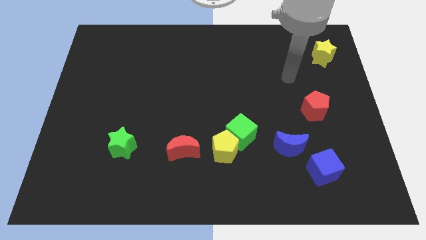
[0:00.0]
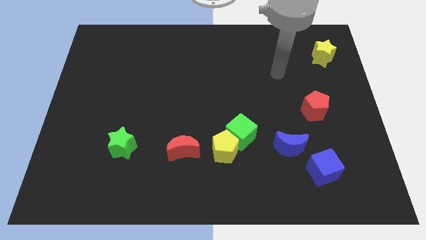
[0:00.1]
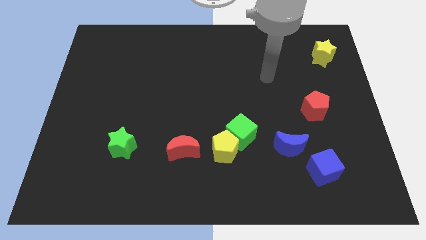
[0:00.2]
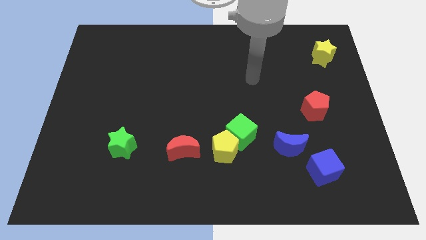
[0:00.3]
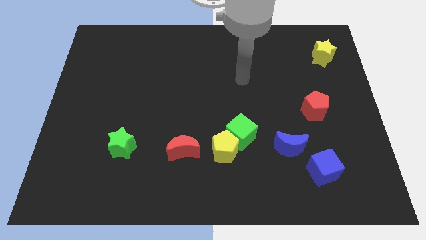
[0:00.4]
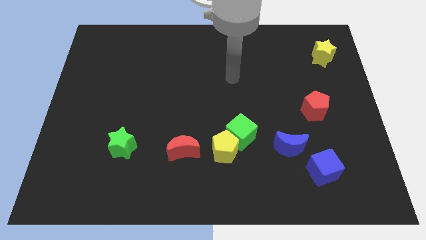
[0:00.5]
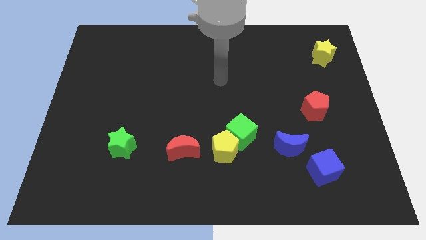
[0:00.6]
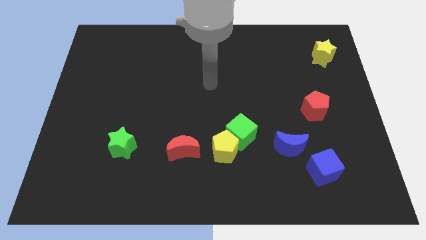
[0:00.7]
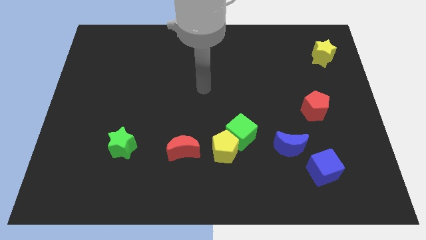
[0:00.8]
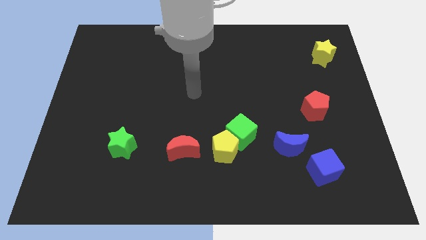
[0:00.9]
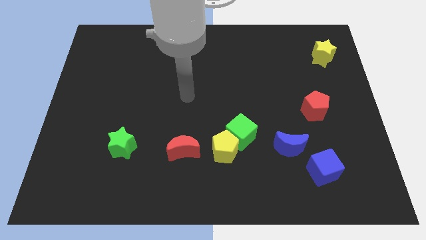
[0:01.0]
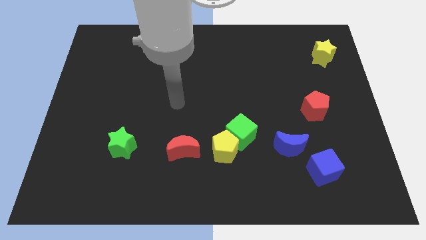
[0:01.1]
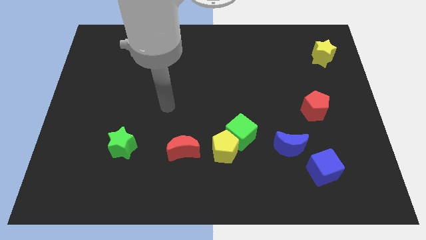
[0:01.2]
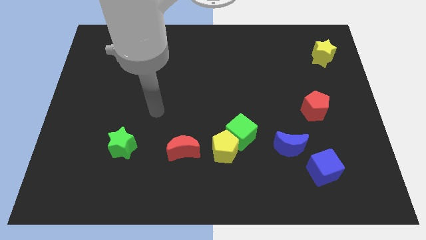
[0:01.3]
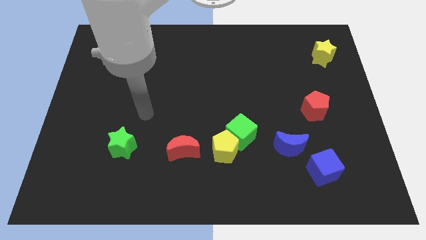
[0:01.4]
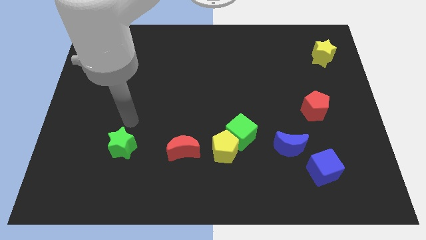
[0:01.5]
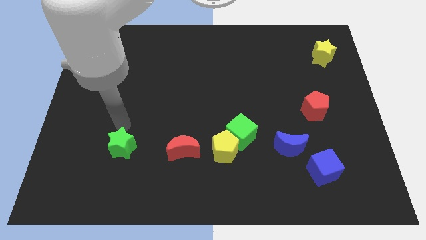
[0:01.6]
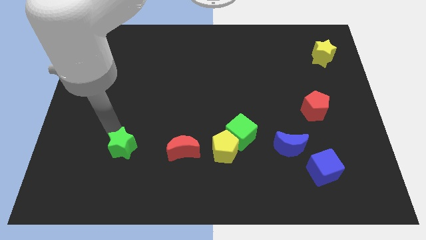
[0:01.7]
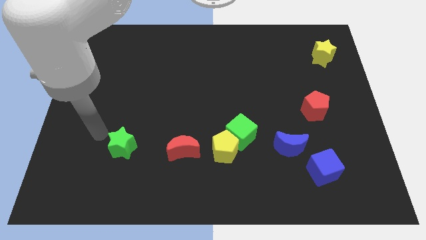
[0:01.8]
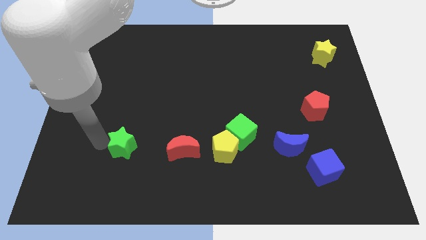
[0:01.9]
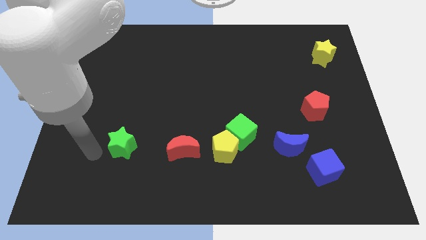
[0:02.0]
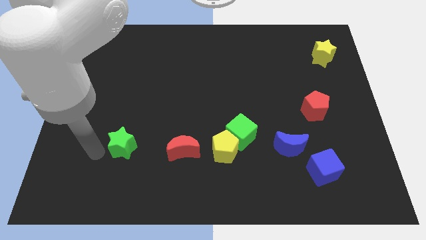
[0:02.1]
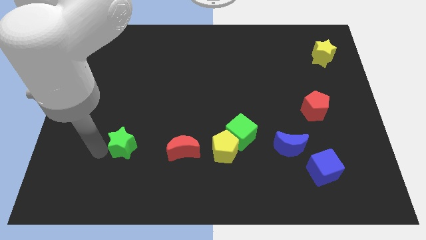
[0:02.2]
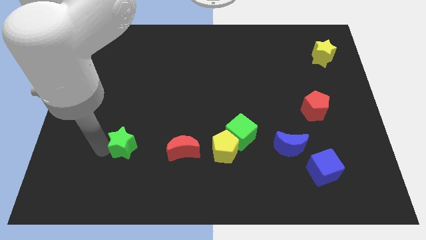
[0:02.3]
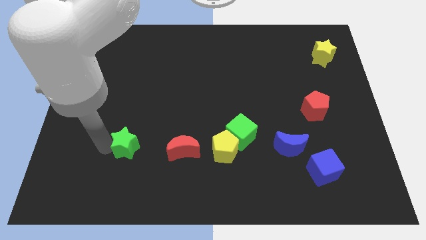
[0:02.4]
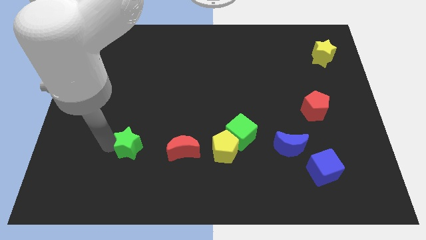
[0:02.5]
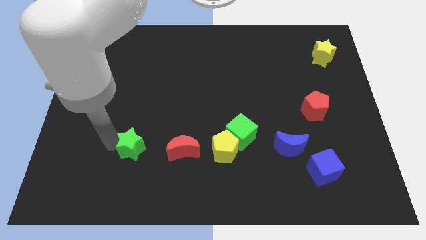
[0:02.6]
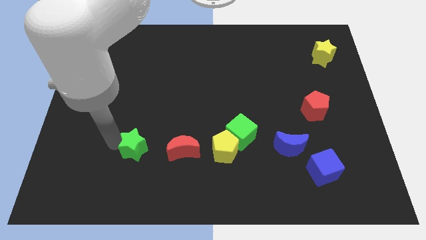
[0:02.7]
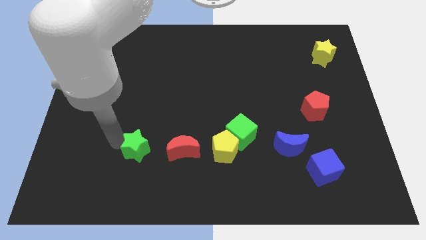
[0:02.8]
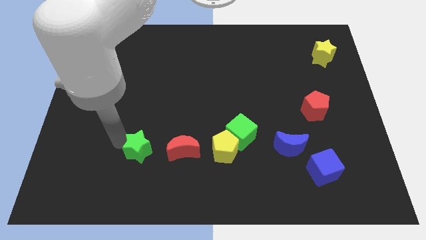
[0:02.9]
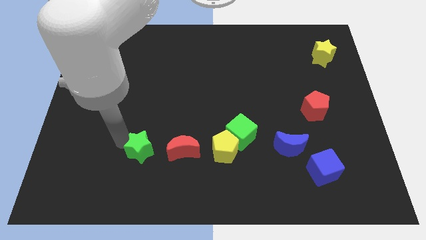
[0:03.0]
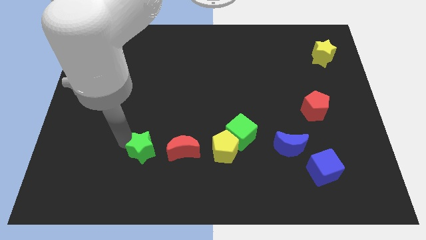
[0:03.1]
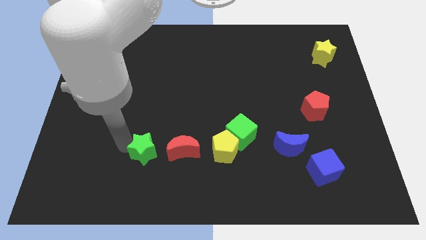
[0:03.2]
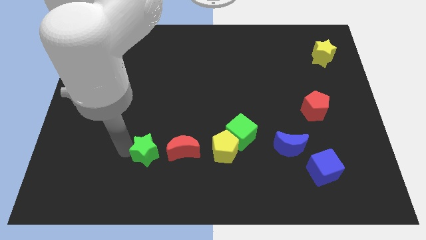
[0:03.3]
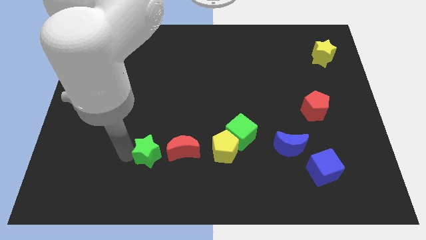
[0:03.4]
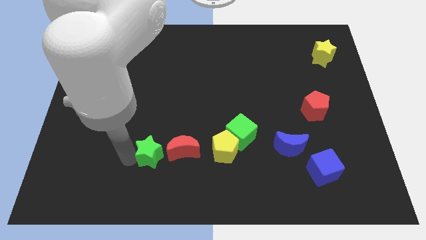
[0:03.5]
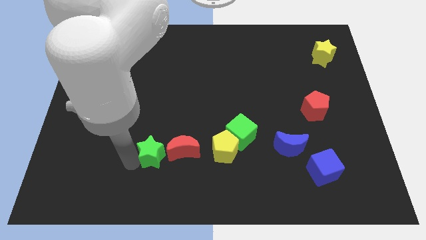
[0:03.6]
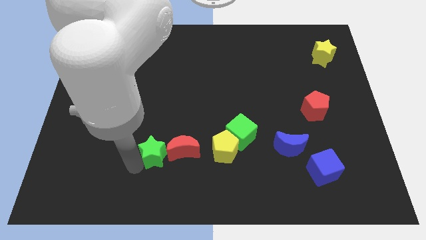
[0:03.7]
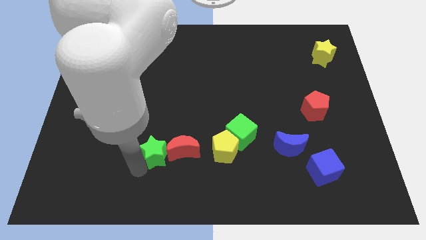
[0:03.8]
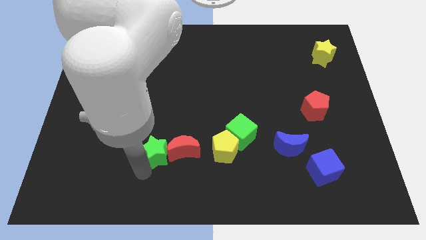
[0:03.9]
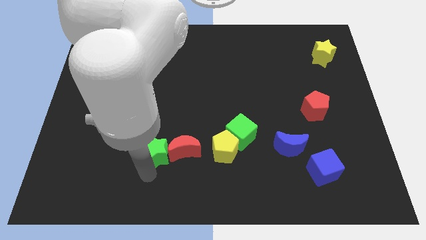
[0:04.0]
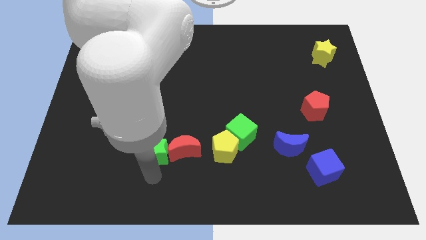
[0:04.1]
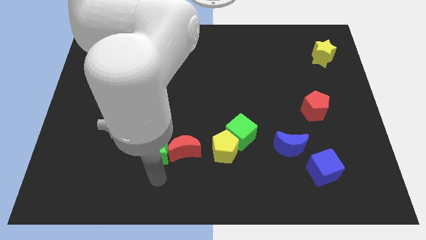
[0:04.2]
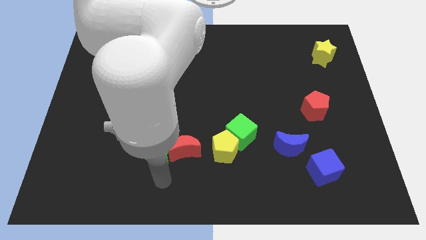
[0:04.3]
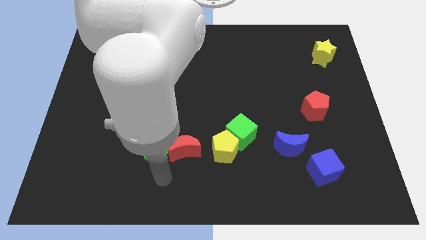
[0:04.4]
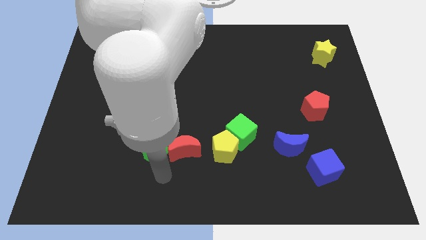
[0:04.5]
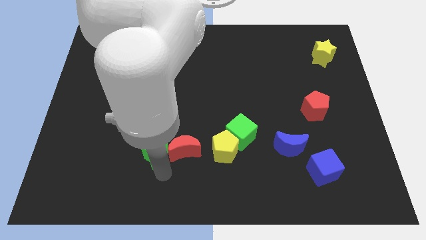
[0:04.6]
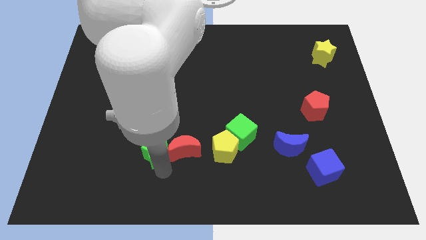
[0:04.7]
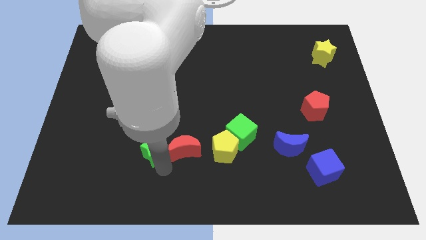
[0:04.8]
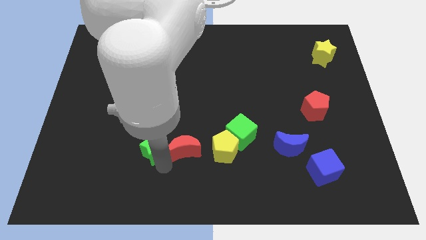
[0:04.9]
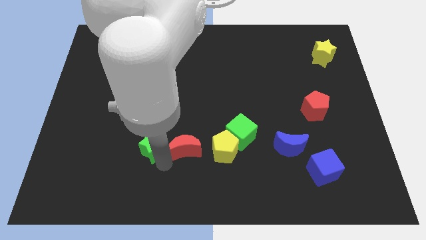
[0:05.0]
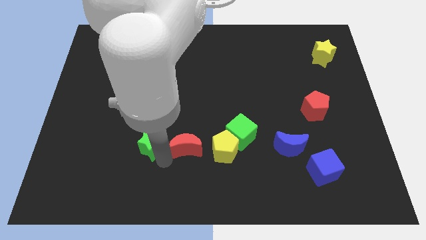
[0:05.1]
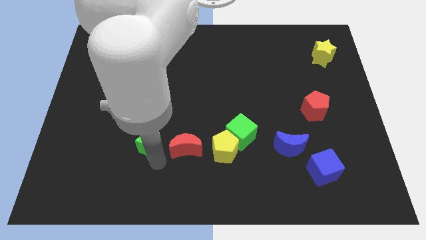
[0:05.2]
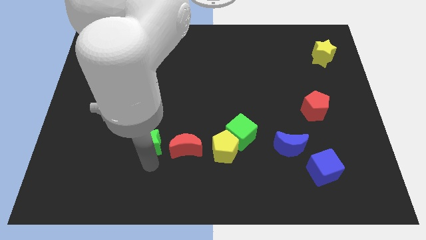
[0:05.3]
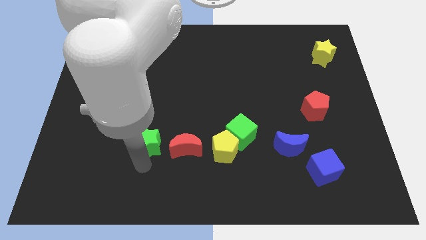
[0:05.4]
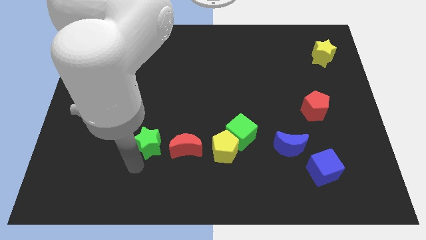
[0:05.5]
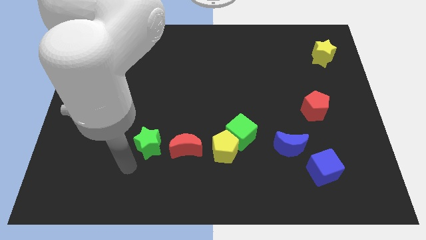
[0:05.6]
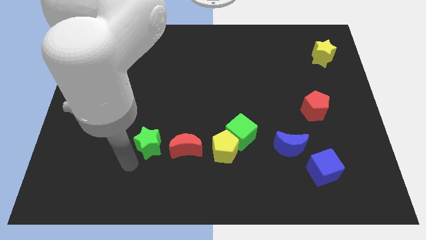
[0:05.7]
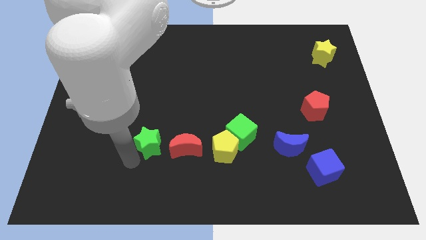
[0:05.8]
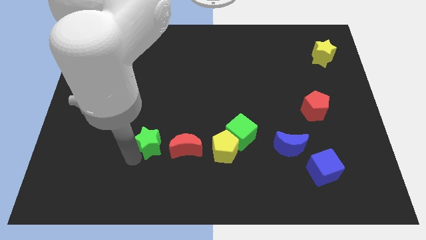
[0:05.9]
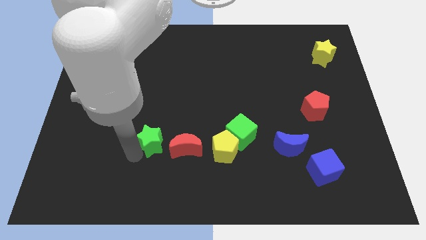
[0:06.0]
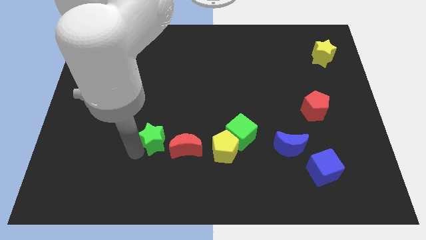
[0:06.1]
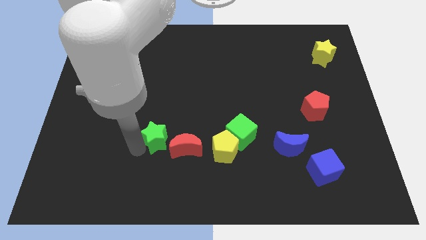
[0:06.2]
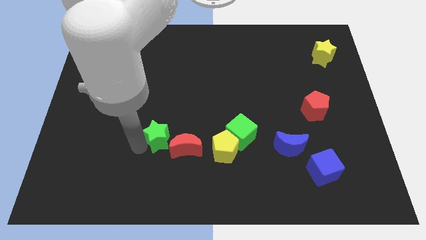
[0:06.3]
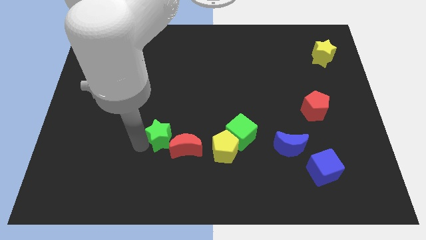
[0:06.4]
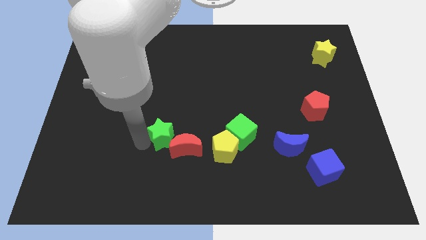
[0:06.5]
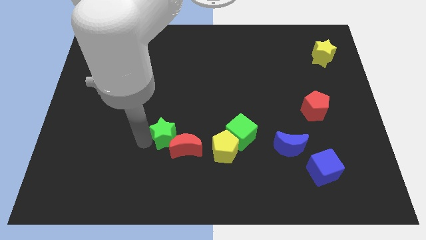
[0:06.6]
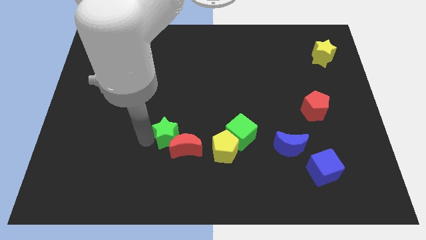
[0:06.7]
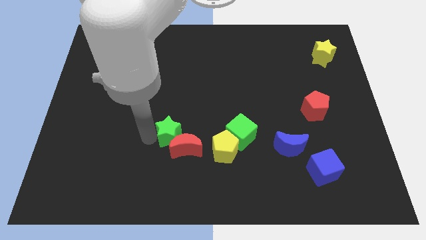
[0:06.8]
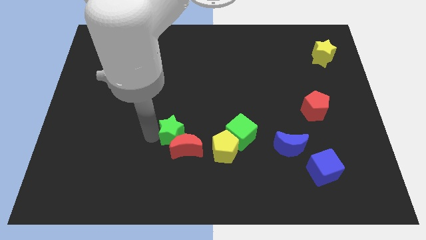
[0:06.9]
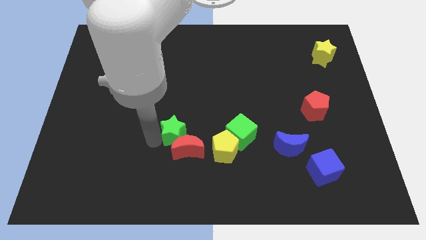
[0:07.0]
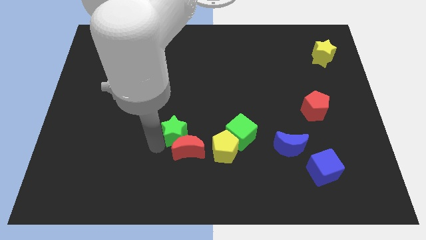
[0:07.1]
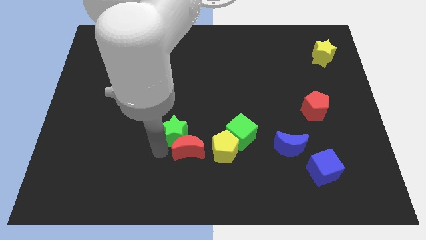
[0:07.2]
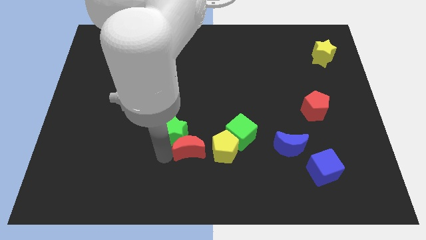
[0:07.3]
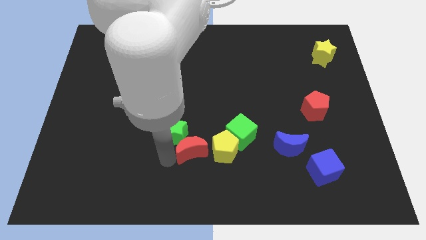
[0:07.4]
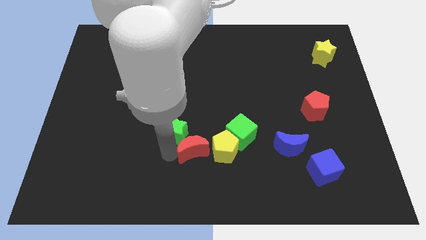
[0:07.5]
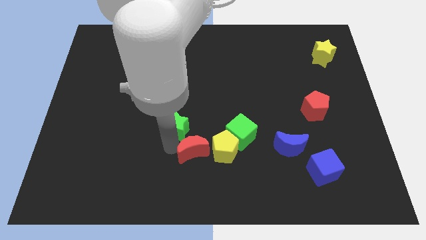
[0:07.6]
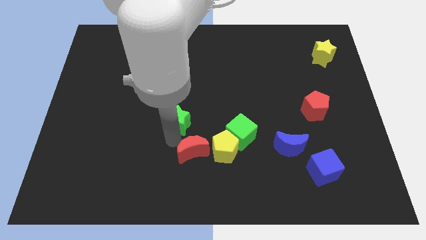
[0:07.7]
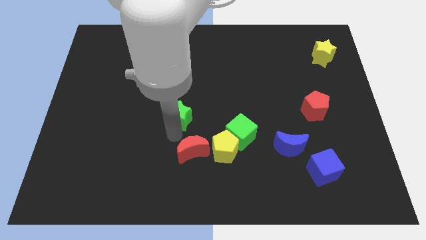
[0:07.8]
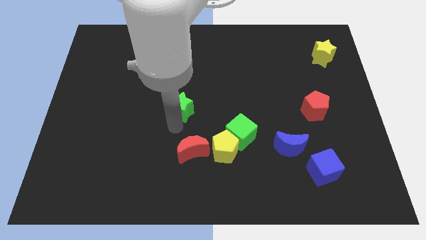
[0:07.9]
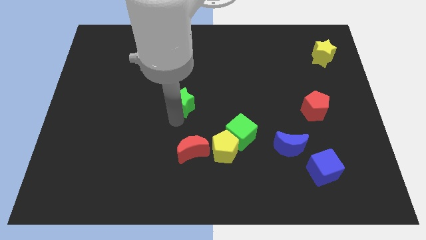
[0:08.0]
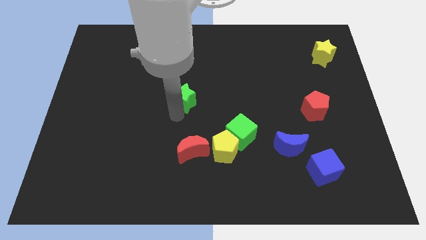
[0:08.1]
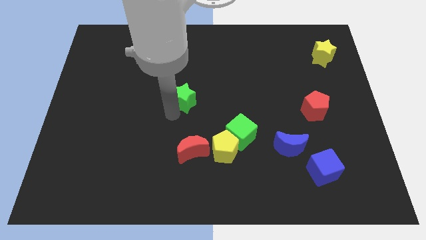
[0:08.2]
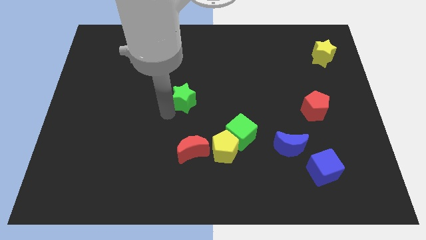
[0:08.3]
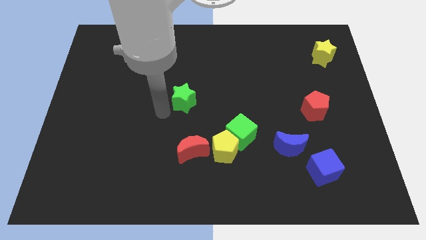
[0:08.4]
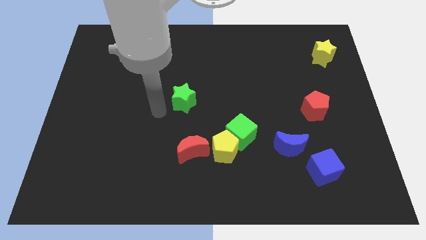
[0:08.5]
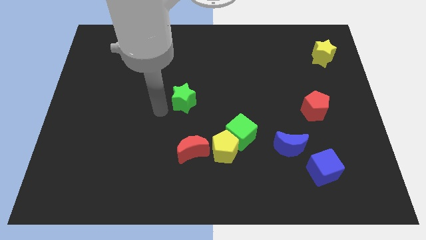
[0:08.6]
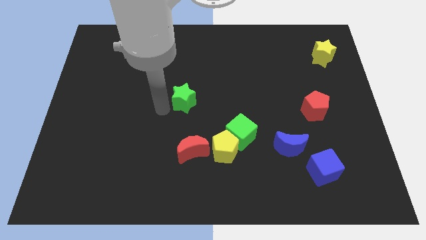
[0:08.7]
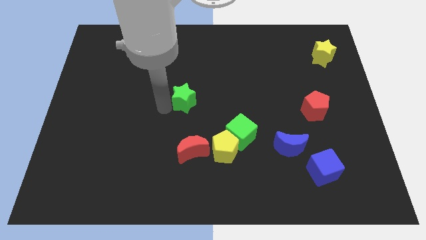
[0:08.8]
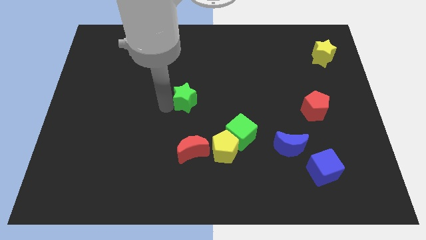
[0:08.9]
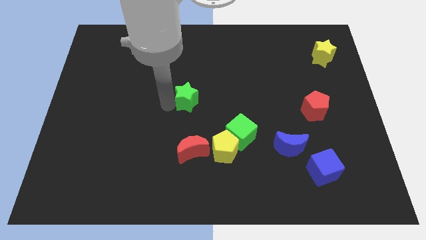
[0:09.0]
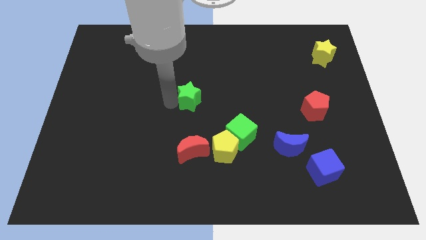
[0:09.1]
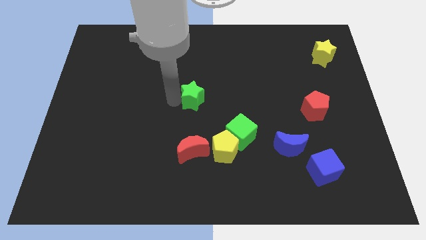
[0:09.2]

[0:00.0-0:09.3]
move the green star diagonally upwards and to the right
